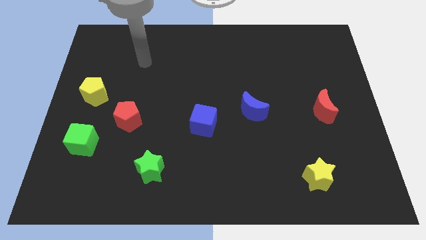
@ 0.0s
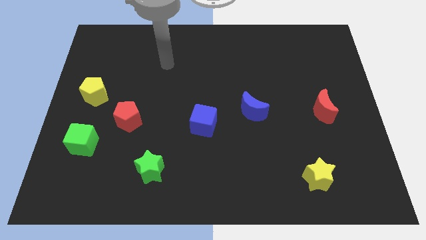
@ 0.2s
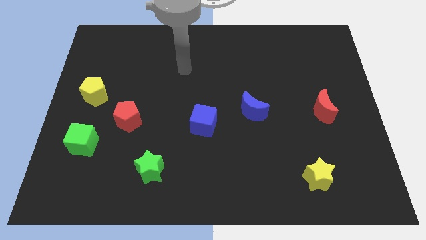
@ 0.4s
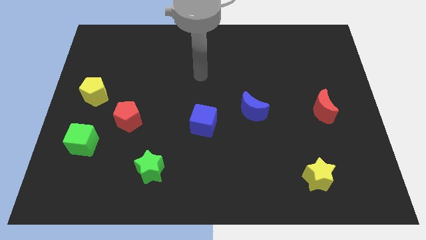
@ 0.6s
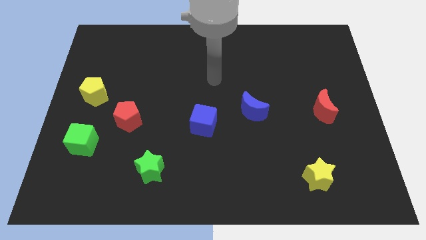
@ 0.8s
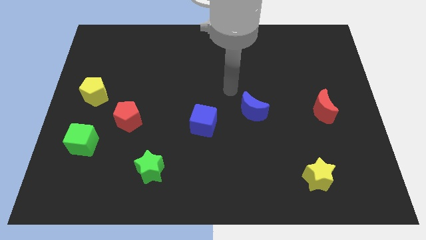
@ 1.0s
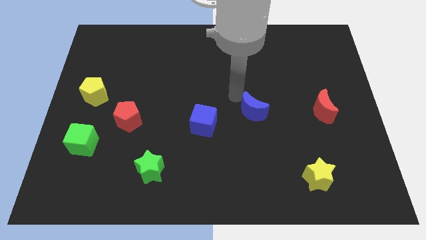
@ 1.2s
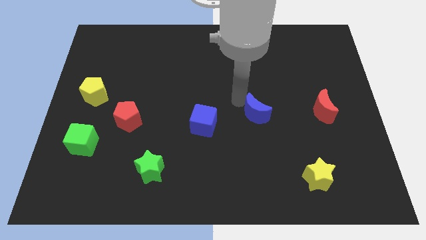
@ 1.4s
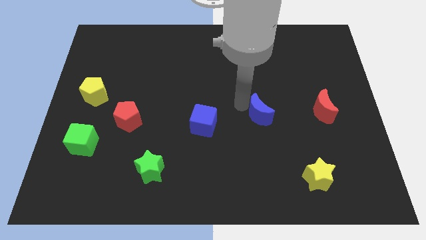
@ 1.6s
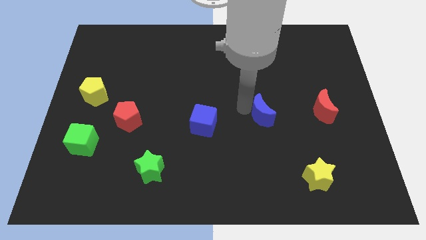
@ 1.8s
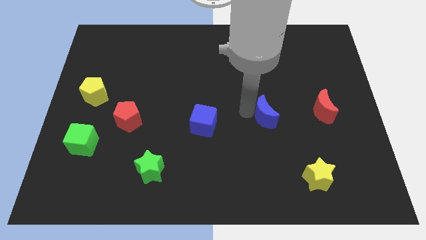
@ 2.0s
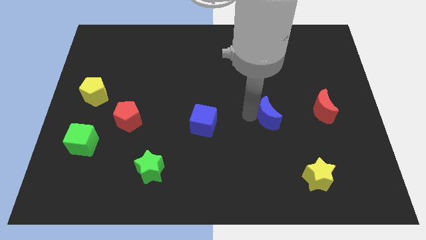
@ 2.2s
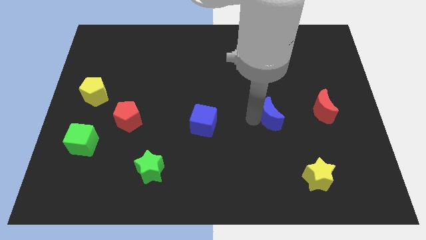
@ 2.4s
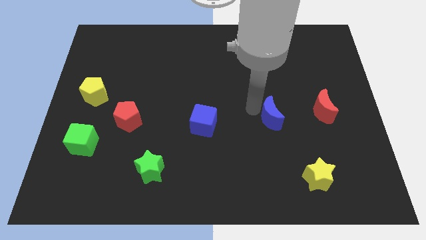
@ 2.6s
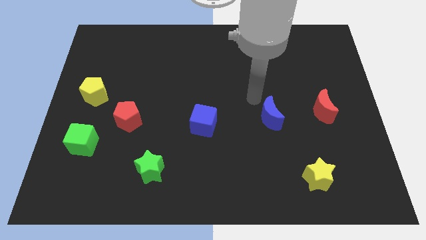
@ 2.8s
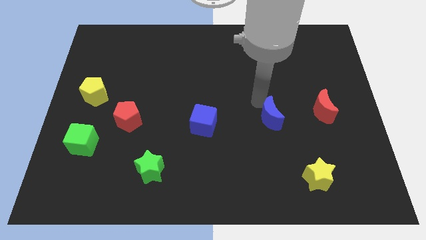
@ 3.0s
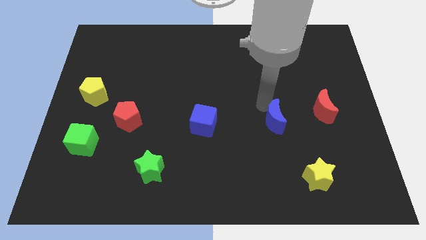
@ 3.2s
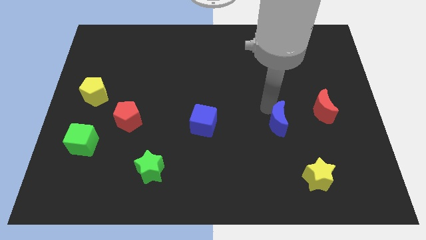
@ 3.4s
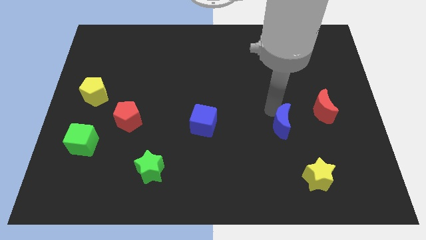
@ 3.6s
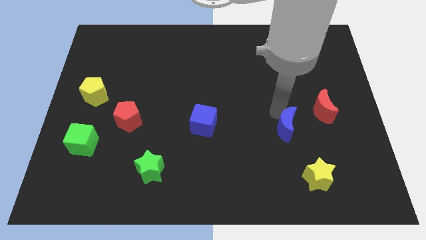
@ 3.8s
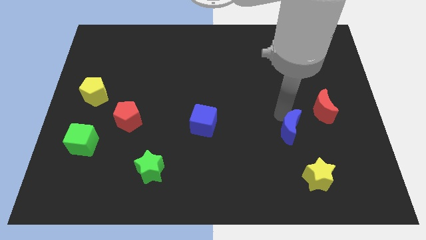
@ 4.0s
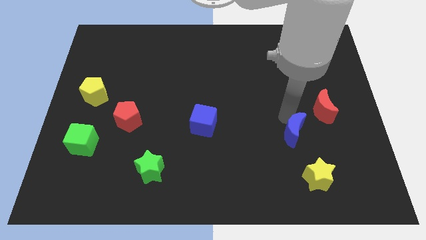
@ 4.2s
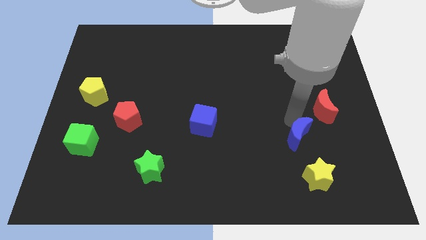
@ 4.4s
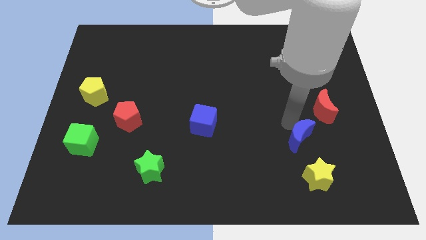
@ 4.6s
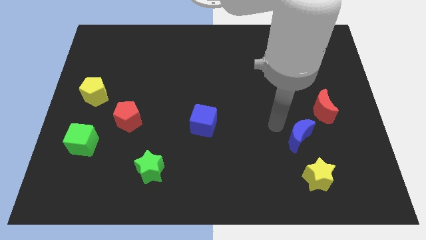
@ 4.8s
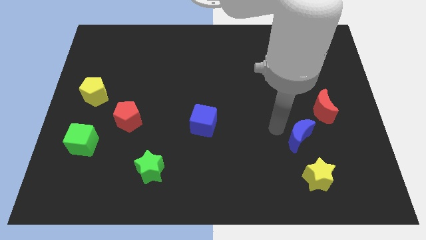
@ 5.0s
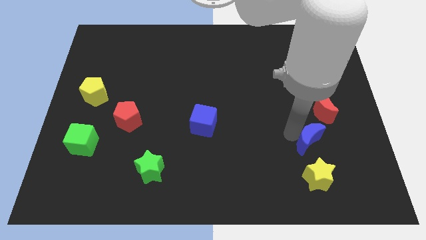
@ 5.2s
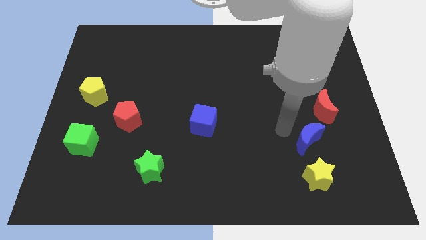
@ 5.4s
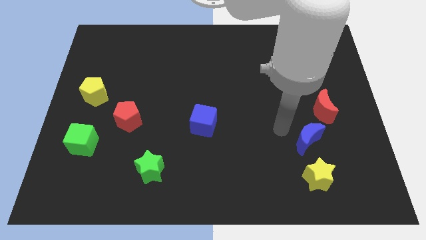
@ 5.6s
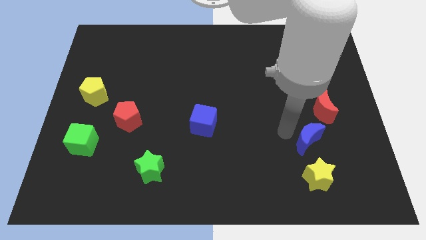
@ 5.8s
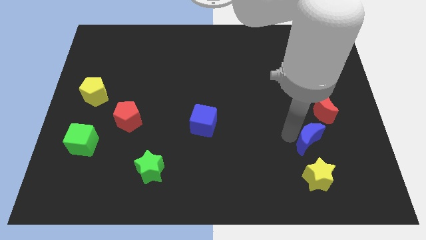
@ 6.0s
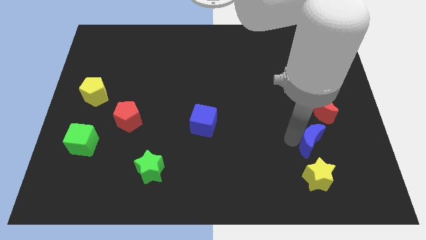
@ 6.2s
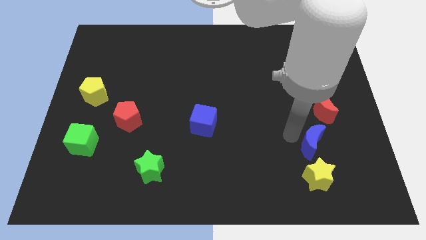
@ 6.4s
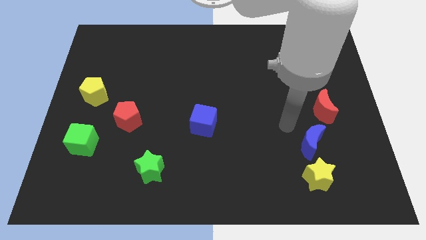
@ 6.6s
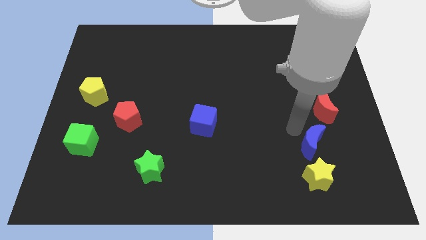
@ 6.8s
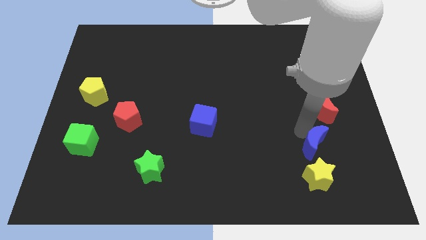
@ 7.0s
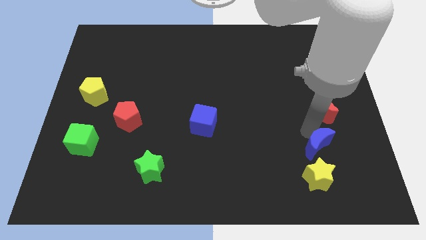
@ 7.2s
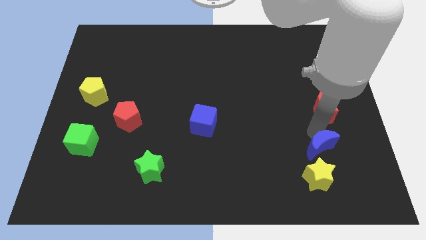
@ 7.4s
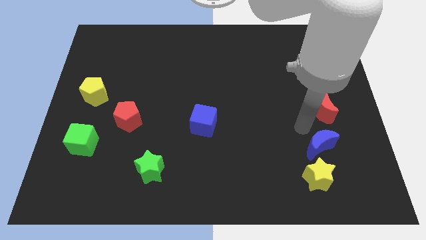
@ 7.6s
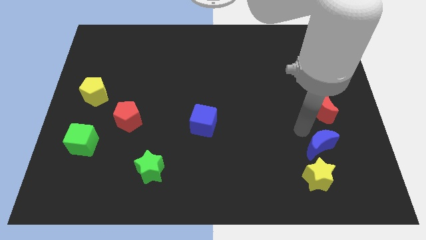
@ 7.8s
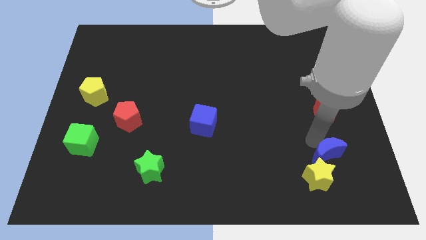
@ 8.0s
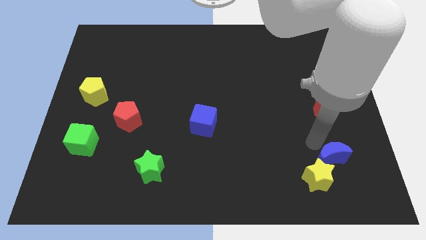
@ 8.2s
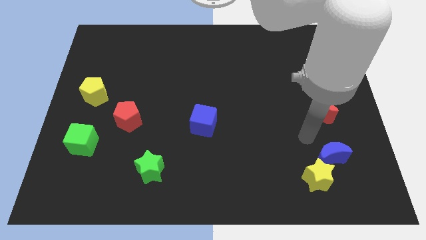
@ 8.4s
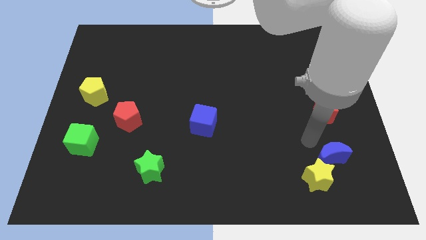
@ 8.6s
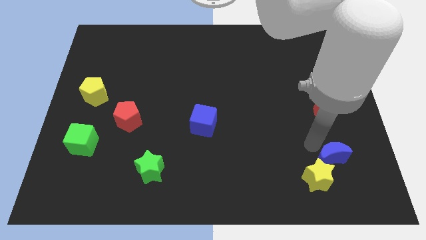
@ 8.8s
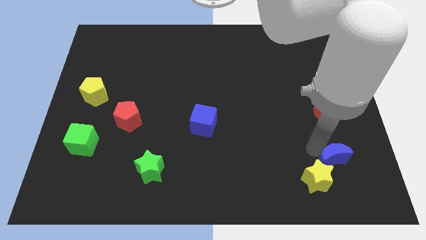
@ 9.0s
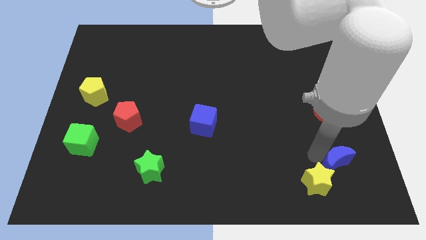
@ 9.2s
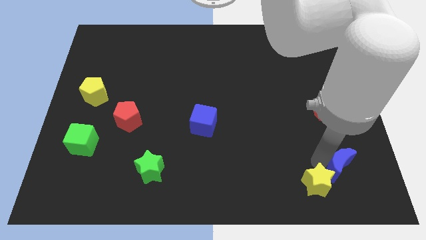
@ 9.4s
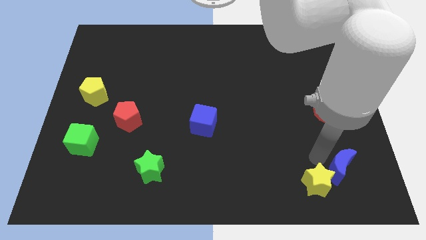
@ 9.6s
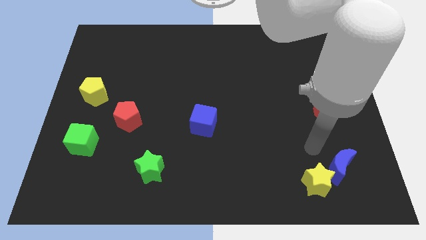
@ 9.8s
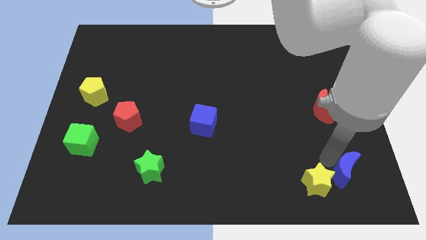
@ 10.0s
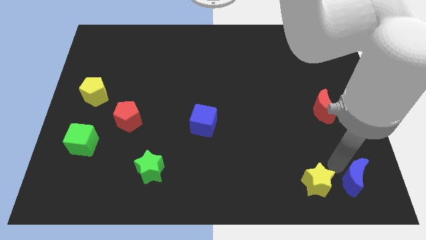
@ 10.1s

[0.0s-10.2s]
push the blue moon to the bottom right of the board

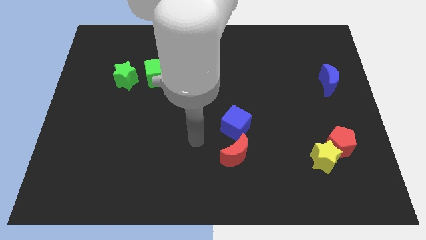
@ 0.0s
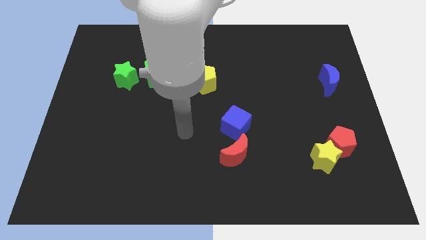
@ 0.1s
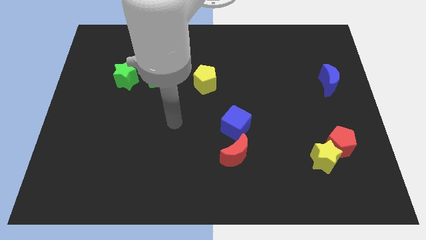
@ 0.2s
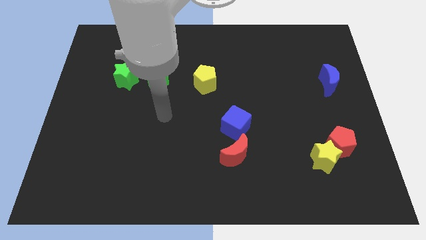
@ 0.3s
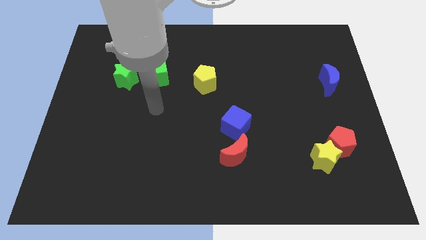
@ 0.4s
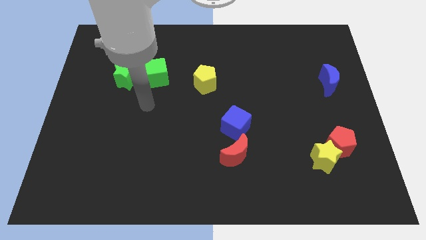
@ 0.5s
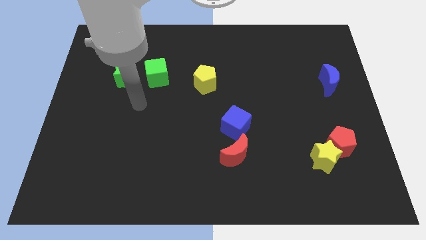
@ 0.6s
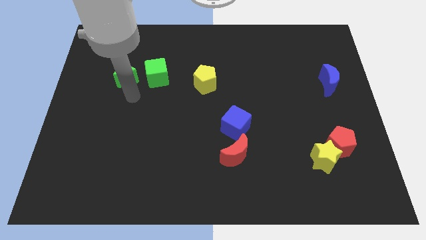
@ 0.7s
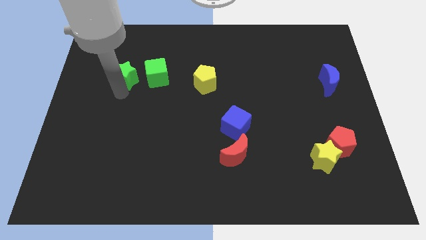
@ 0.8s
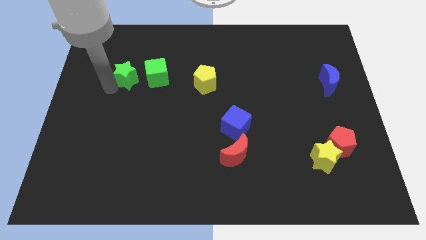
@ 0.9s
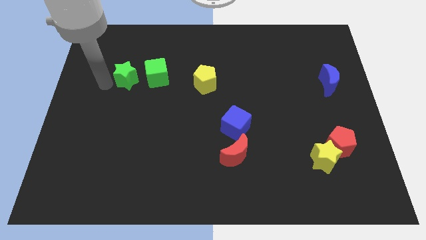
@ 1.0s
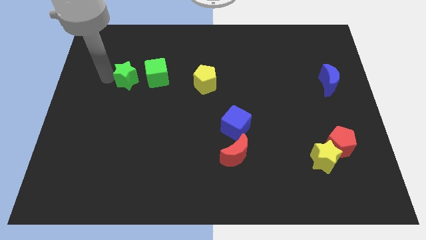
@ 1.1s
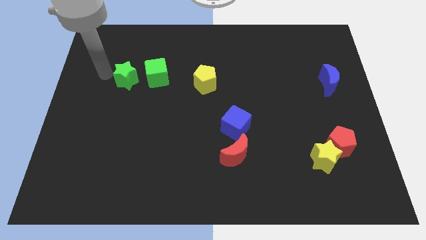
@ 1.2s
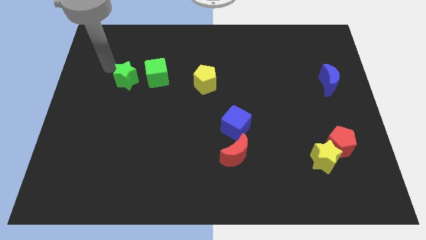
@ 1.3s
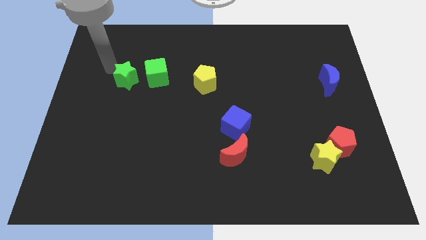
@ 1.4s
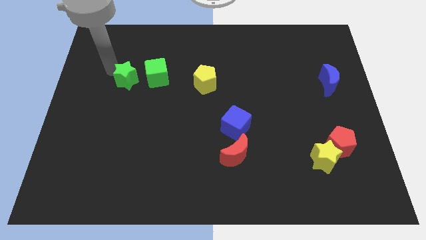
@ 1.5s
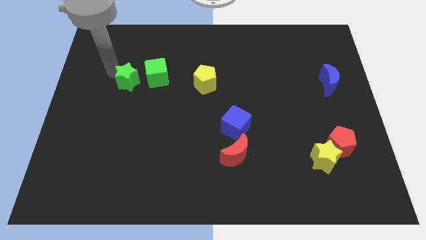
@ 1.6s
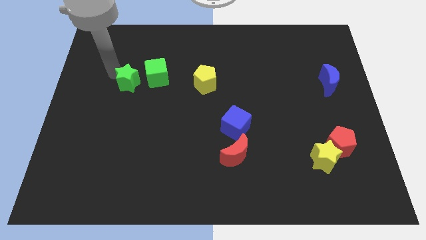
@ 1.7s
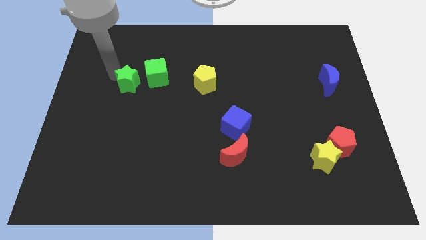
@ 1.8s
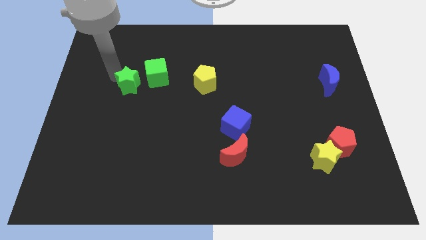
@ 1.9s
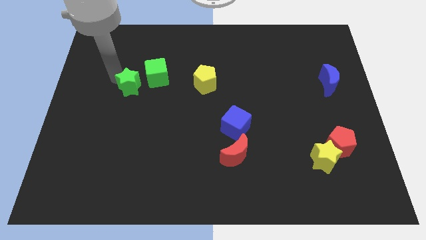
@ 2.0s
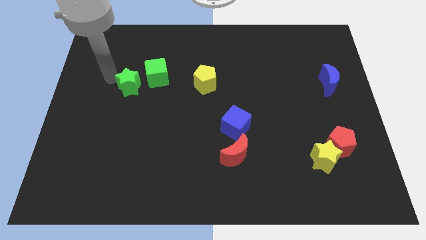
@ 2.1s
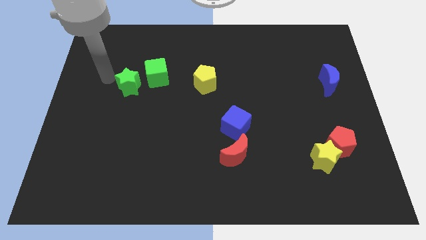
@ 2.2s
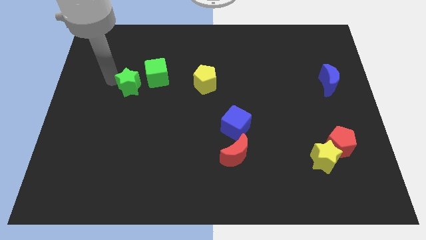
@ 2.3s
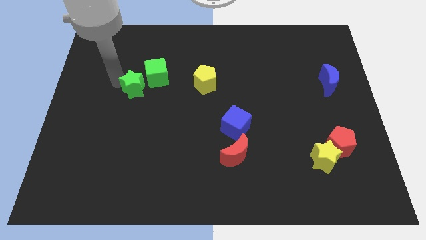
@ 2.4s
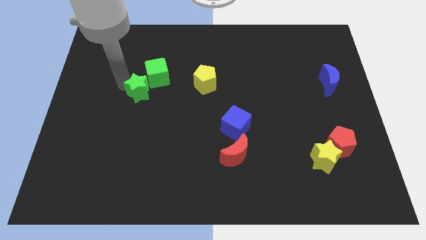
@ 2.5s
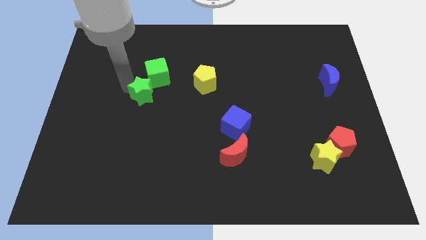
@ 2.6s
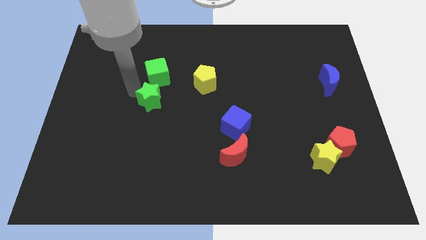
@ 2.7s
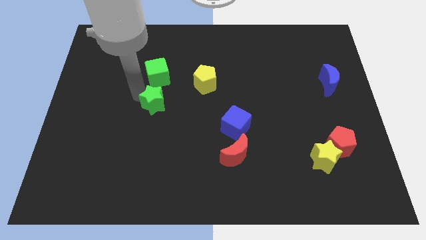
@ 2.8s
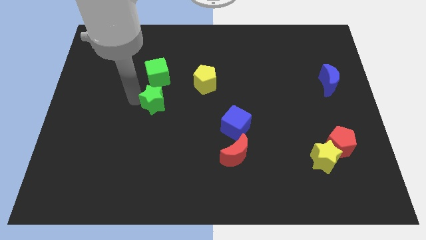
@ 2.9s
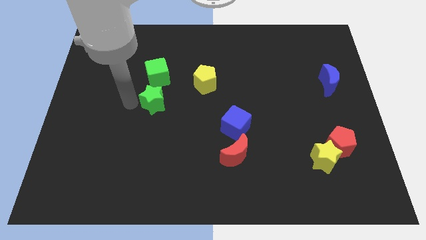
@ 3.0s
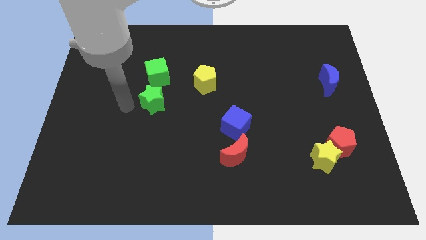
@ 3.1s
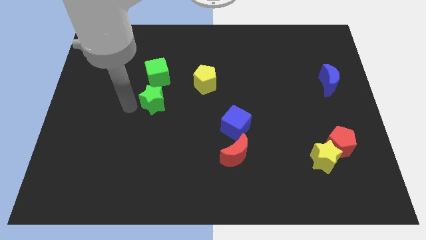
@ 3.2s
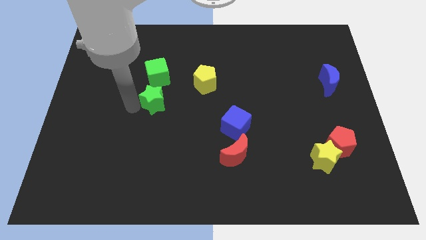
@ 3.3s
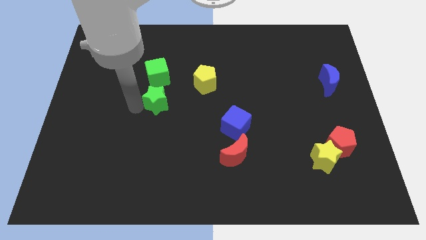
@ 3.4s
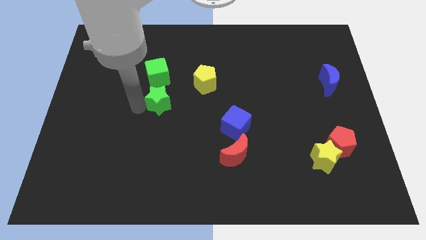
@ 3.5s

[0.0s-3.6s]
move the green star to the center
